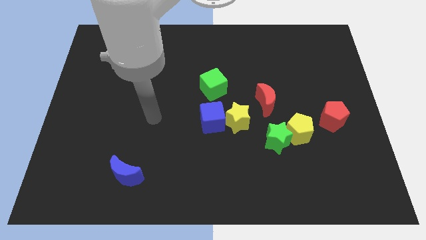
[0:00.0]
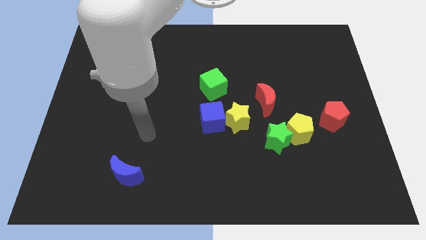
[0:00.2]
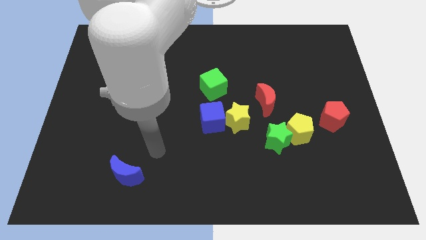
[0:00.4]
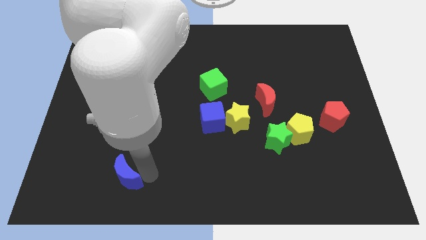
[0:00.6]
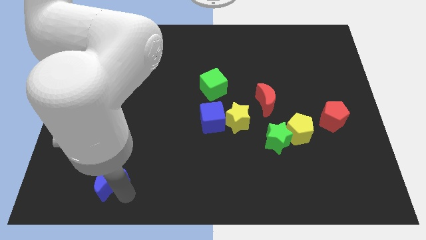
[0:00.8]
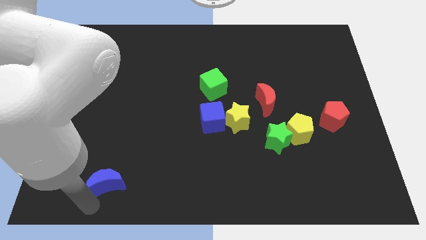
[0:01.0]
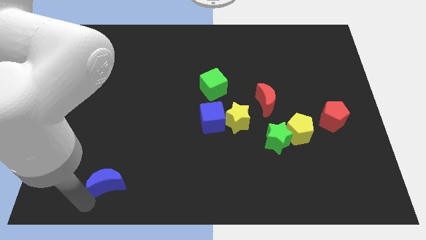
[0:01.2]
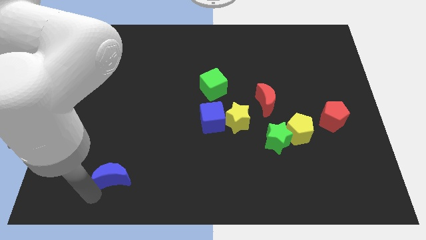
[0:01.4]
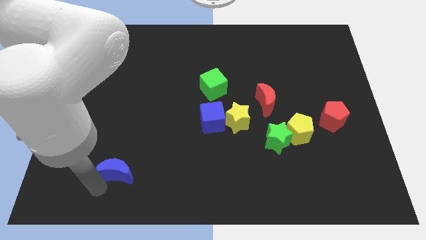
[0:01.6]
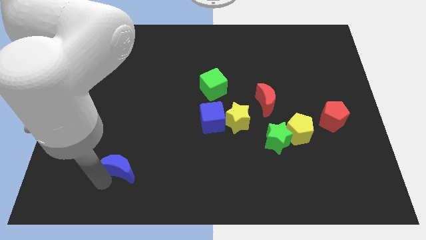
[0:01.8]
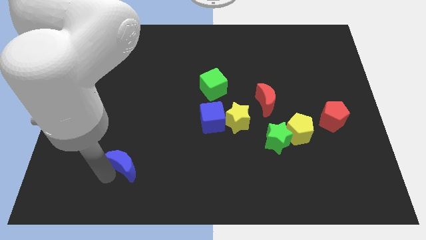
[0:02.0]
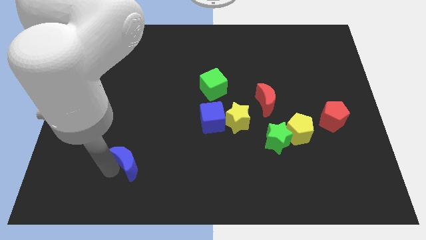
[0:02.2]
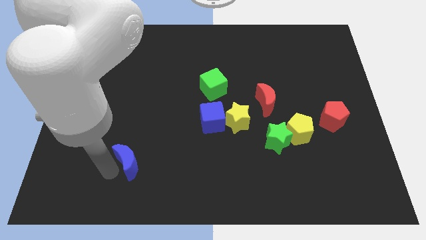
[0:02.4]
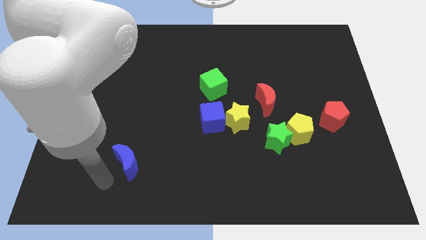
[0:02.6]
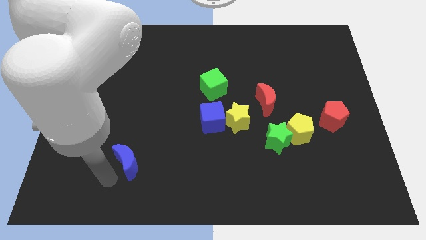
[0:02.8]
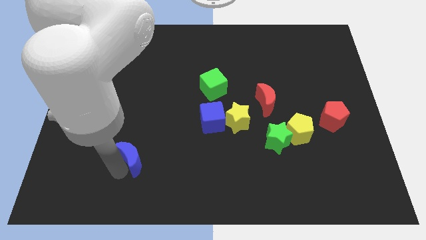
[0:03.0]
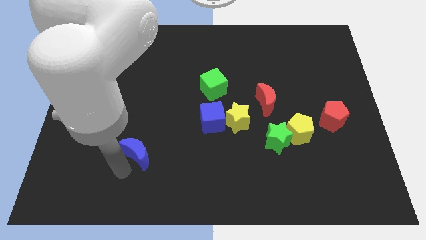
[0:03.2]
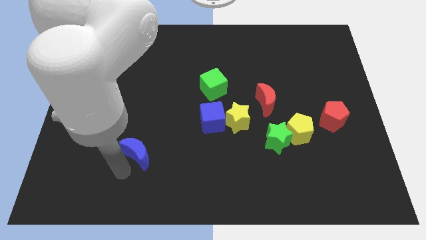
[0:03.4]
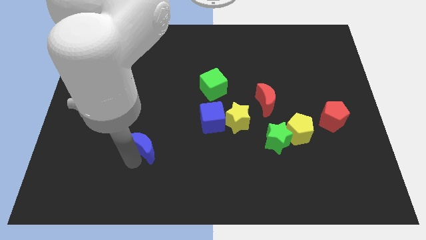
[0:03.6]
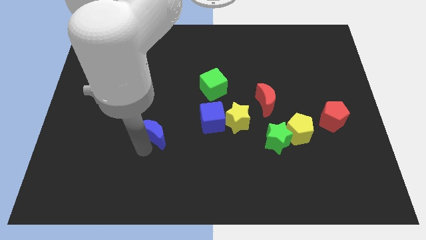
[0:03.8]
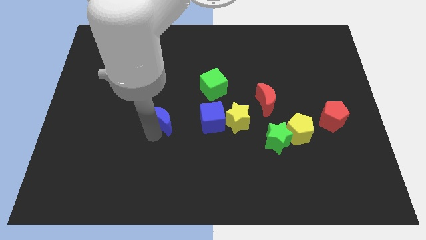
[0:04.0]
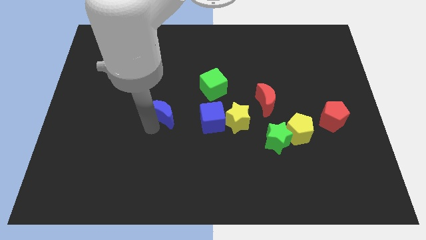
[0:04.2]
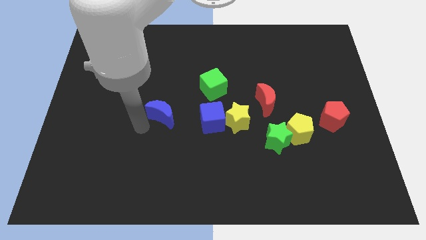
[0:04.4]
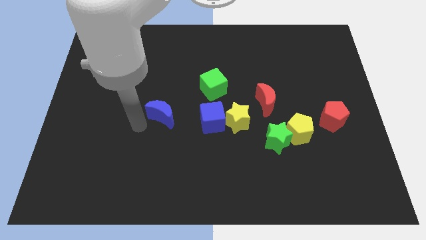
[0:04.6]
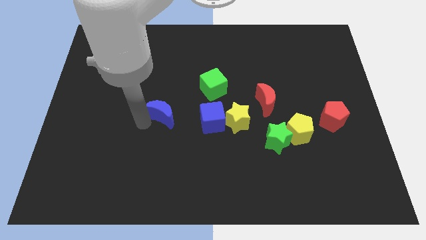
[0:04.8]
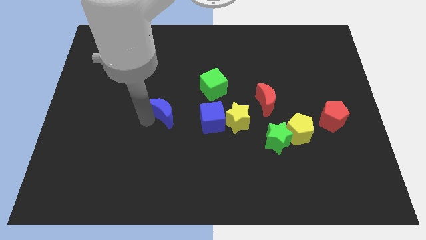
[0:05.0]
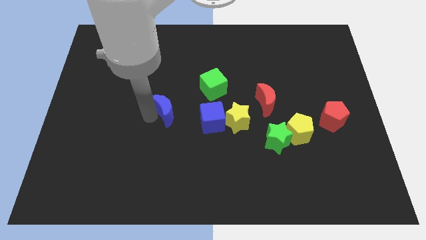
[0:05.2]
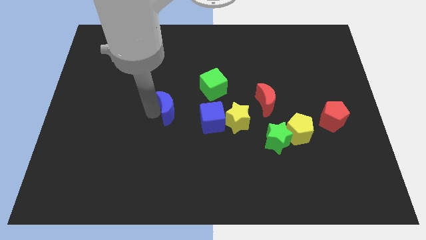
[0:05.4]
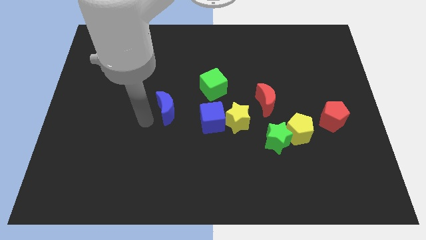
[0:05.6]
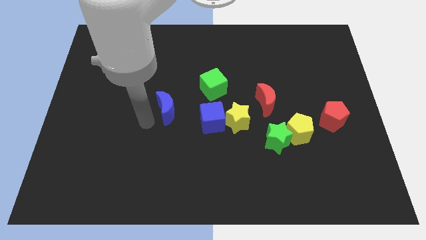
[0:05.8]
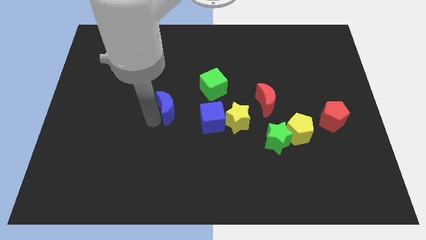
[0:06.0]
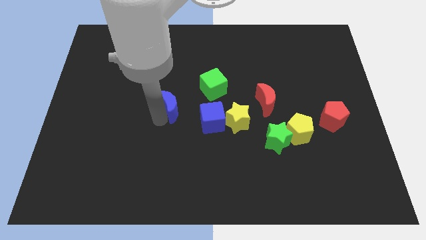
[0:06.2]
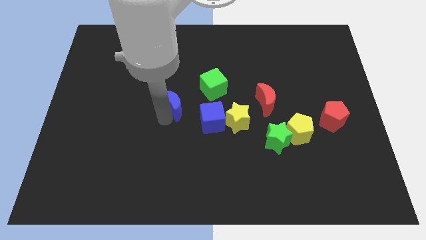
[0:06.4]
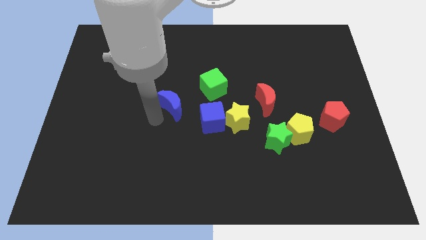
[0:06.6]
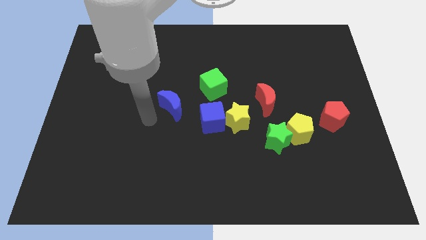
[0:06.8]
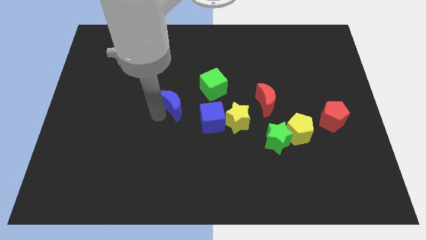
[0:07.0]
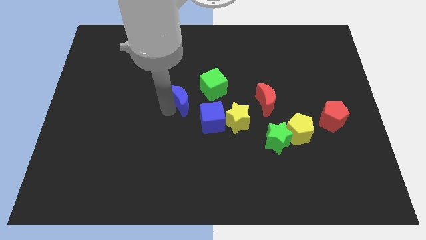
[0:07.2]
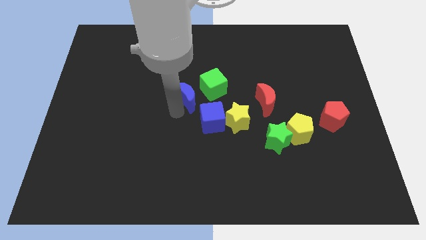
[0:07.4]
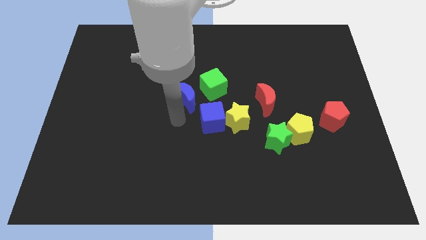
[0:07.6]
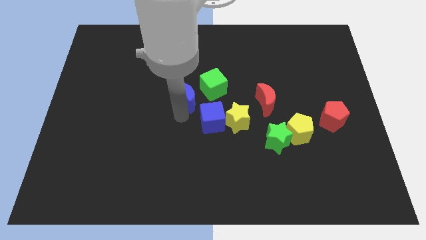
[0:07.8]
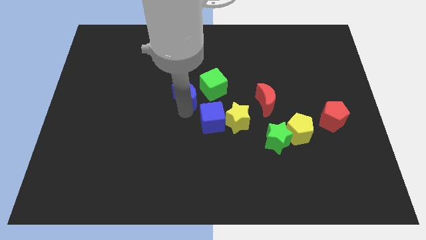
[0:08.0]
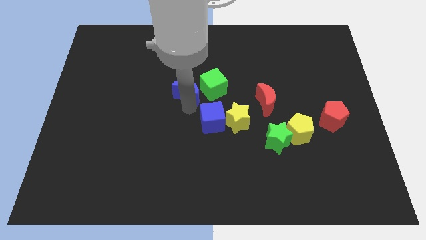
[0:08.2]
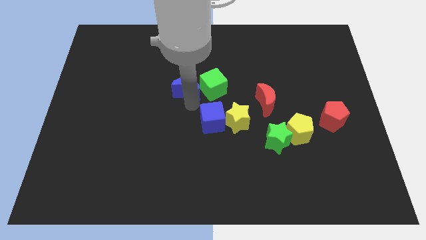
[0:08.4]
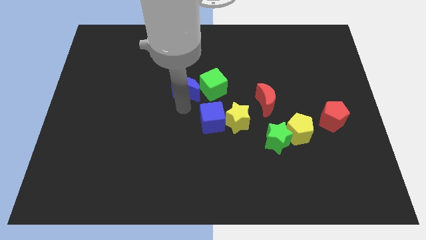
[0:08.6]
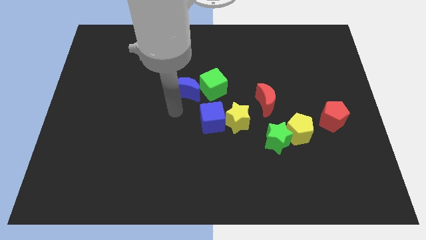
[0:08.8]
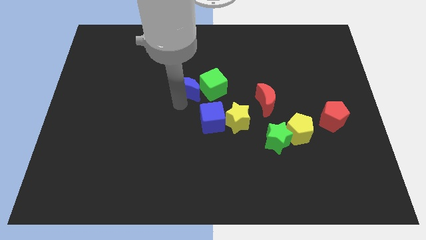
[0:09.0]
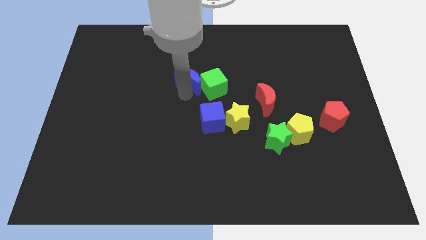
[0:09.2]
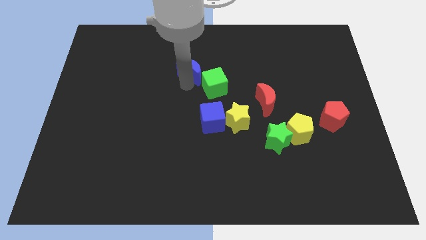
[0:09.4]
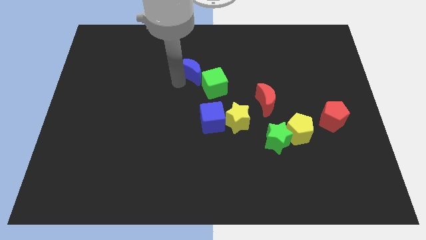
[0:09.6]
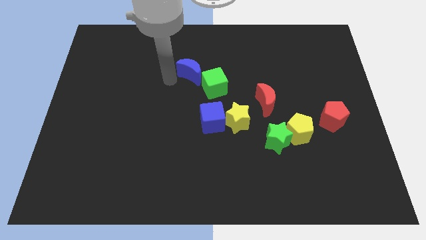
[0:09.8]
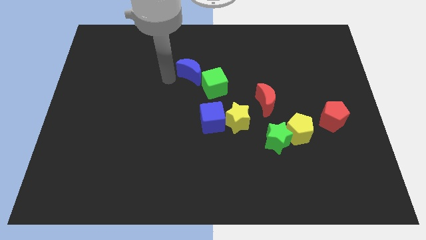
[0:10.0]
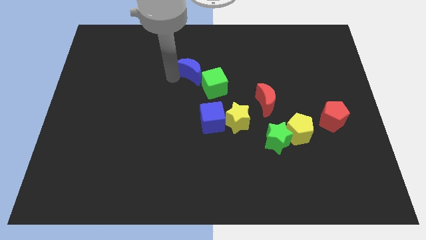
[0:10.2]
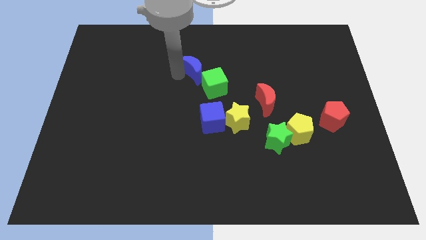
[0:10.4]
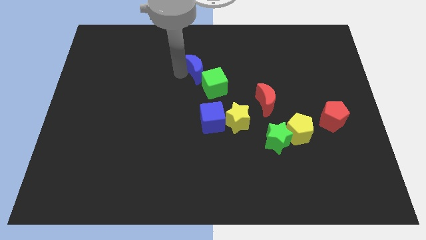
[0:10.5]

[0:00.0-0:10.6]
slide the blue moon above the green cube

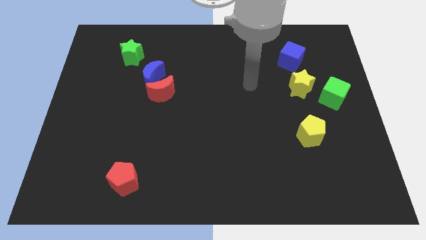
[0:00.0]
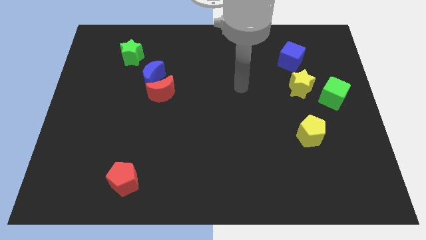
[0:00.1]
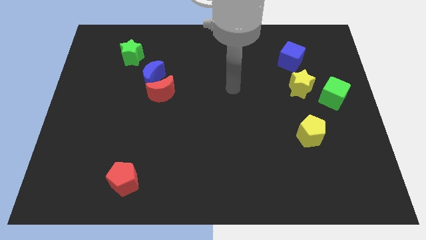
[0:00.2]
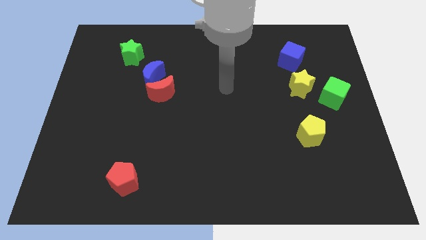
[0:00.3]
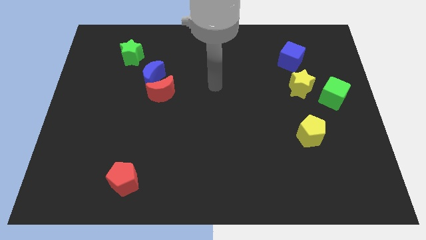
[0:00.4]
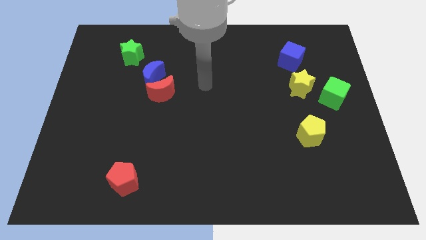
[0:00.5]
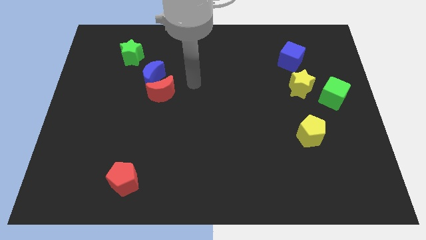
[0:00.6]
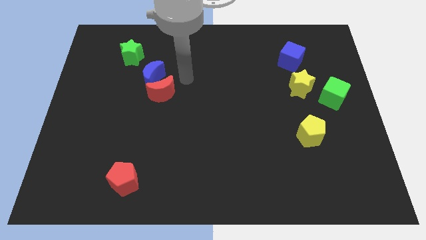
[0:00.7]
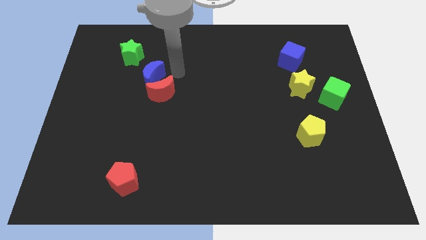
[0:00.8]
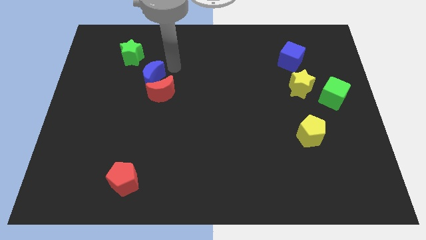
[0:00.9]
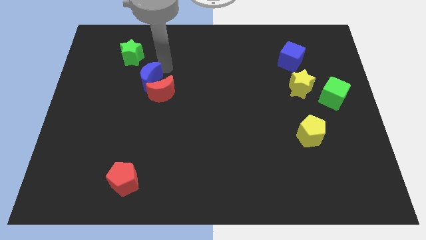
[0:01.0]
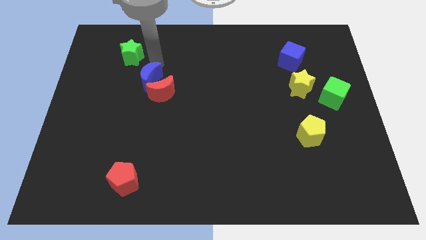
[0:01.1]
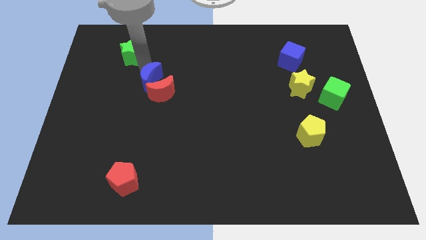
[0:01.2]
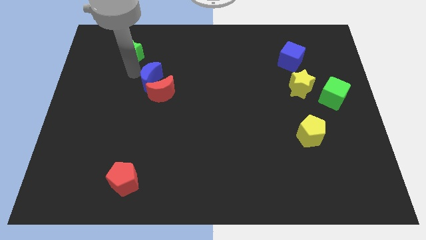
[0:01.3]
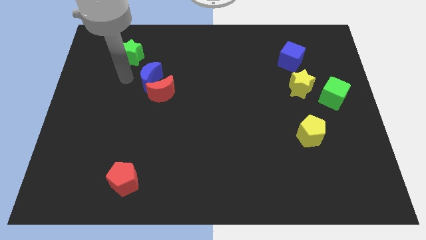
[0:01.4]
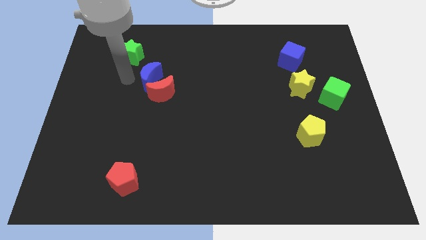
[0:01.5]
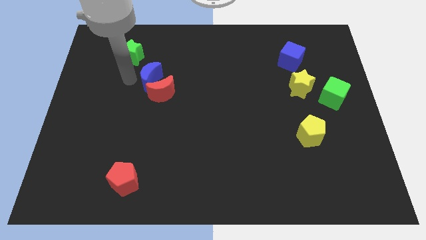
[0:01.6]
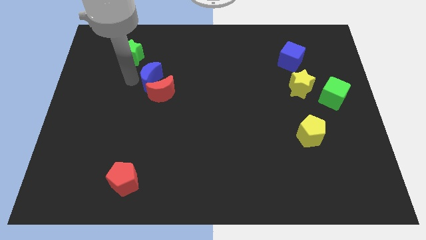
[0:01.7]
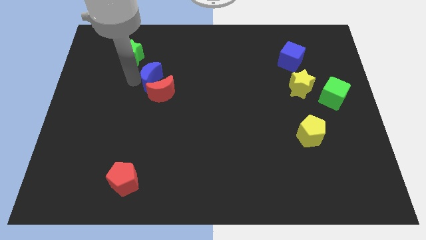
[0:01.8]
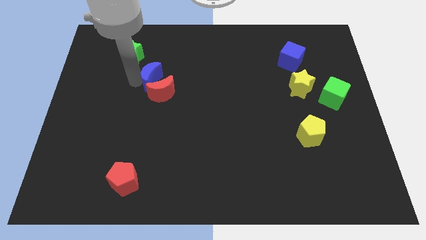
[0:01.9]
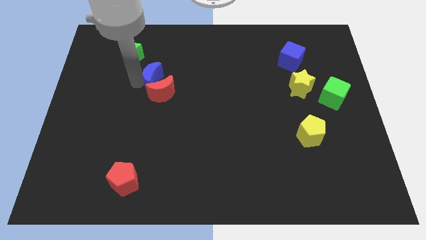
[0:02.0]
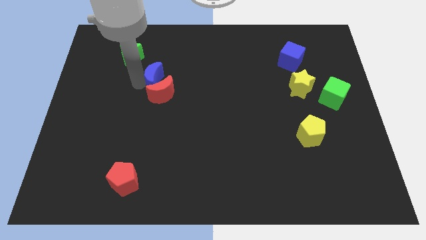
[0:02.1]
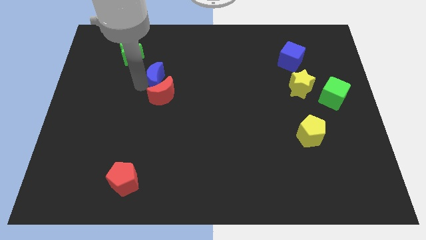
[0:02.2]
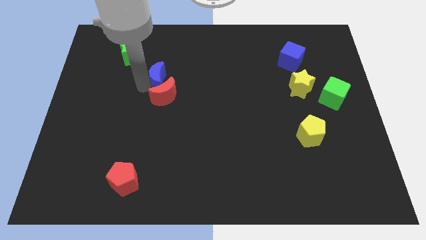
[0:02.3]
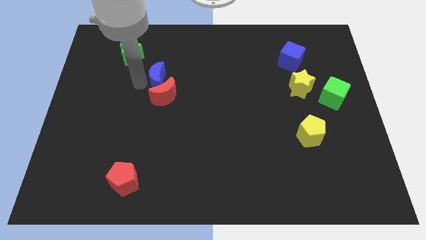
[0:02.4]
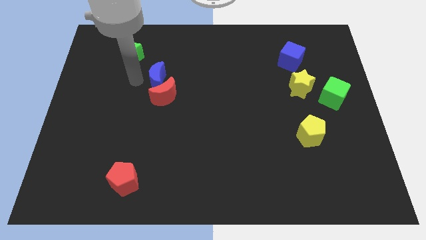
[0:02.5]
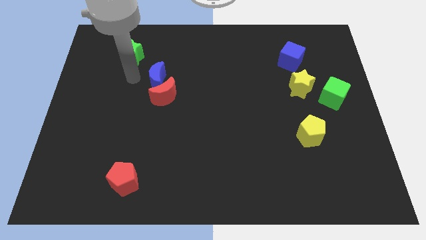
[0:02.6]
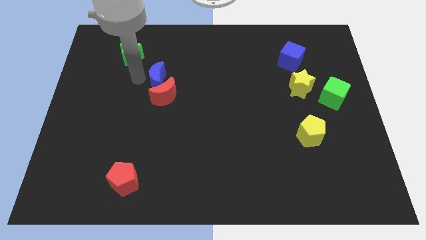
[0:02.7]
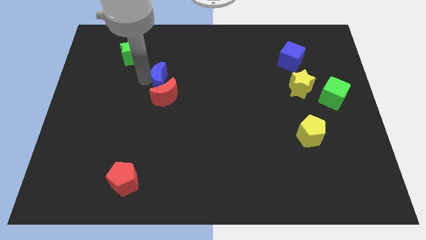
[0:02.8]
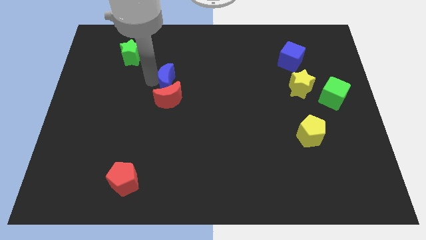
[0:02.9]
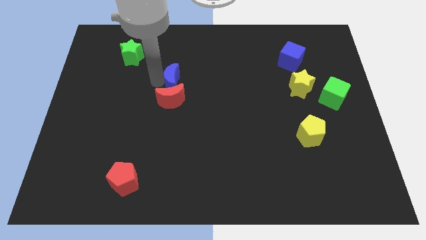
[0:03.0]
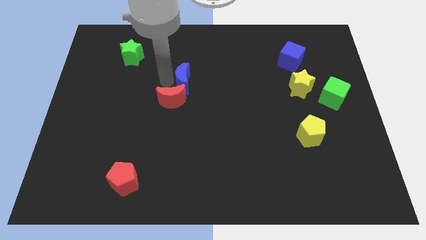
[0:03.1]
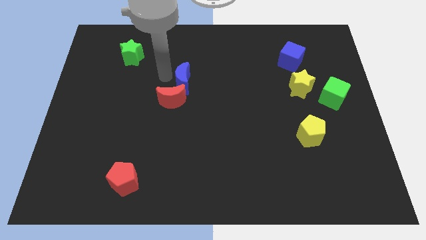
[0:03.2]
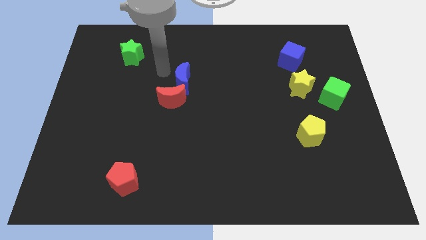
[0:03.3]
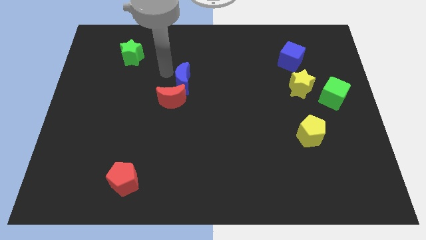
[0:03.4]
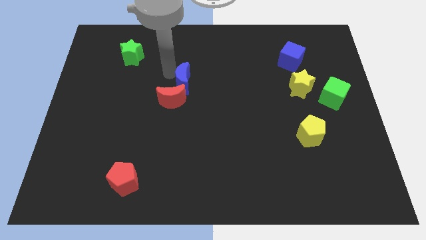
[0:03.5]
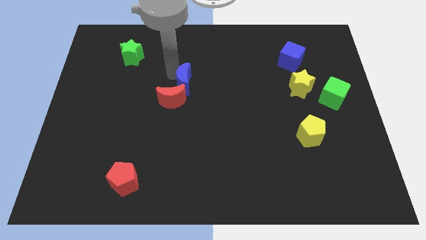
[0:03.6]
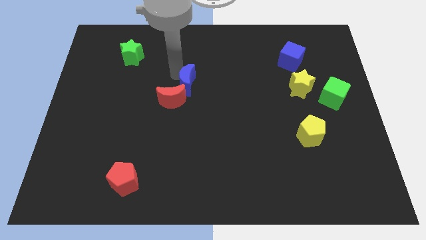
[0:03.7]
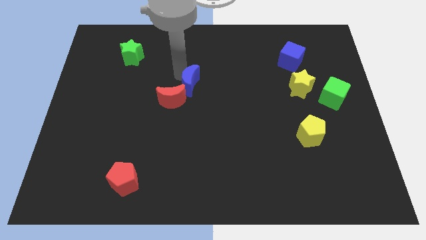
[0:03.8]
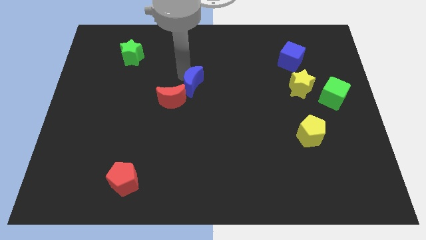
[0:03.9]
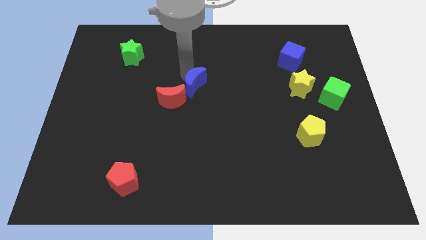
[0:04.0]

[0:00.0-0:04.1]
slide the blue moon to the right side of the red moon
